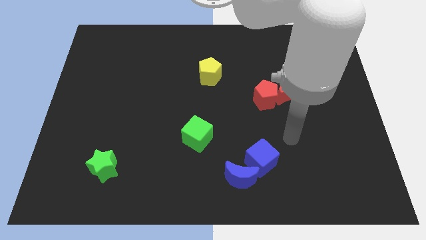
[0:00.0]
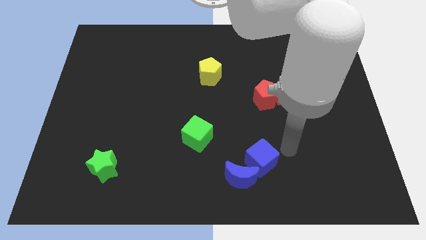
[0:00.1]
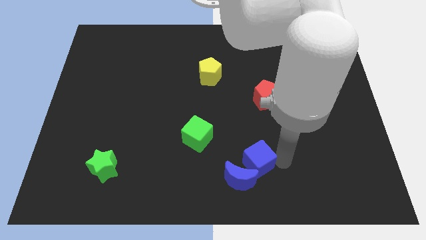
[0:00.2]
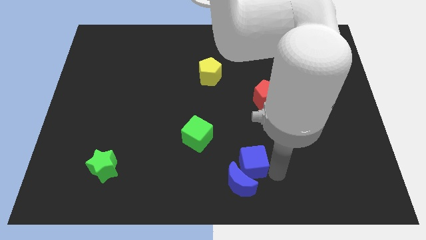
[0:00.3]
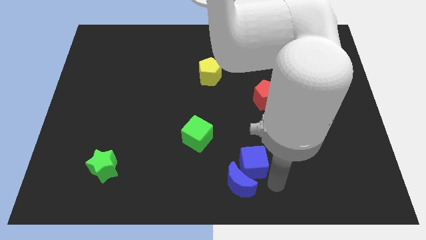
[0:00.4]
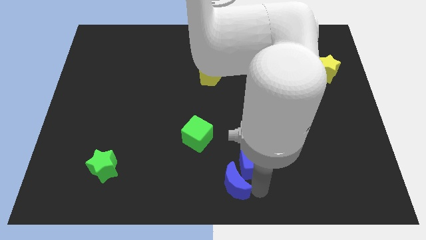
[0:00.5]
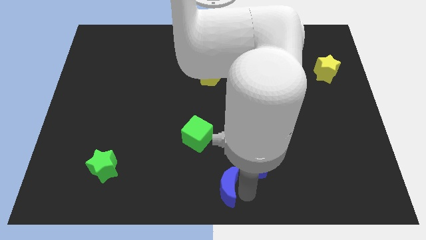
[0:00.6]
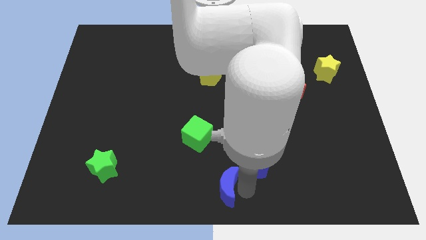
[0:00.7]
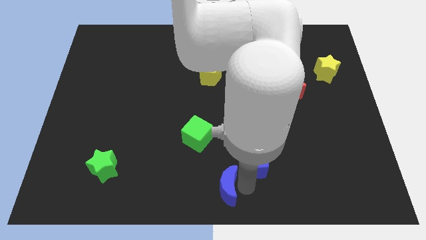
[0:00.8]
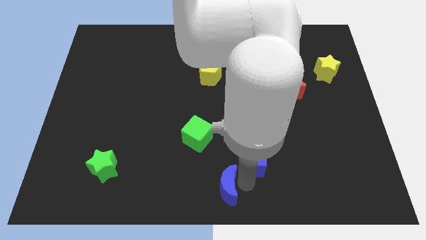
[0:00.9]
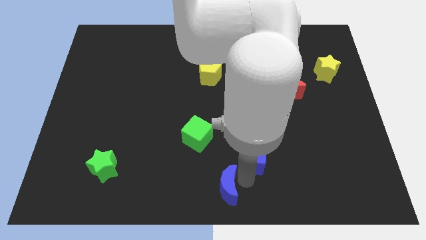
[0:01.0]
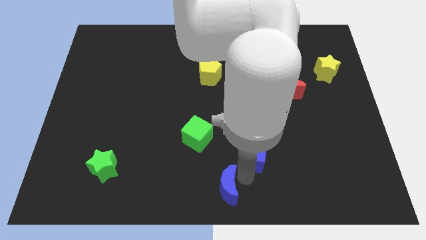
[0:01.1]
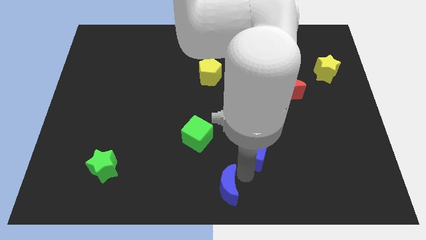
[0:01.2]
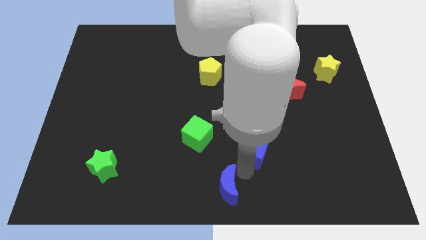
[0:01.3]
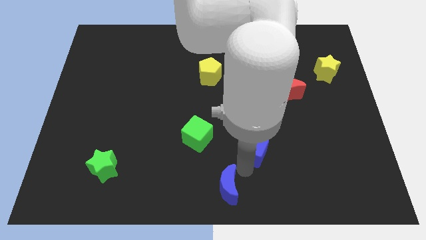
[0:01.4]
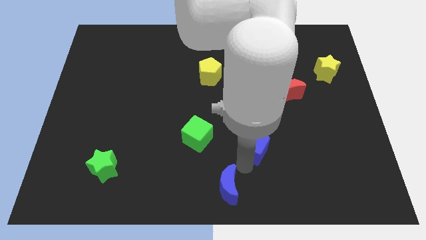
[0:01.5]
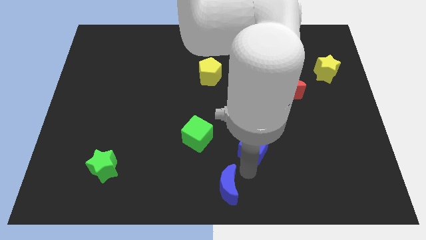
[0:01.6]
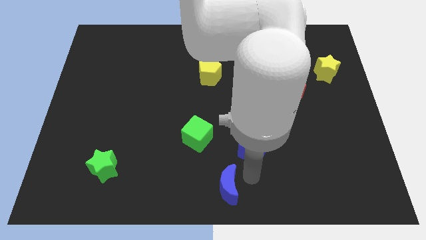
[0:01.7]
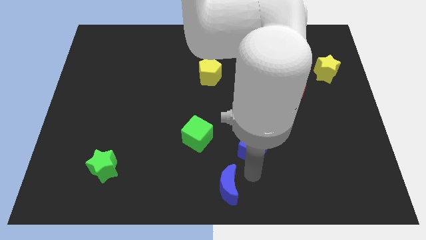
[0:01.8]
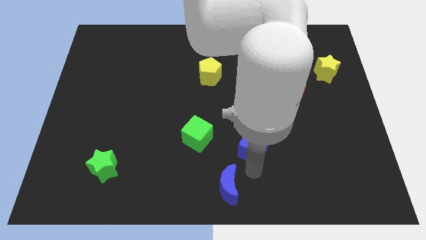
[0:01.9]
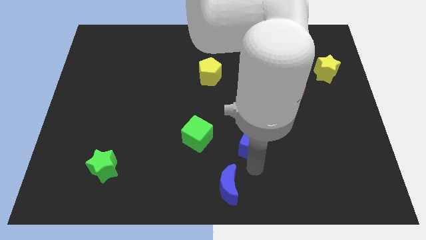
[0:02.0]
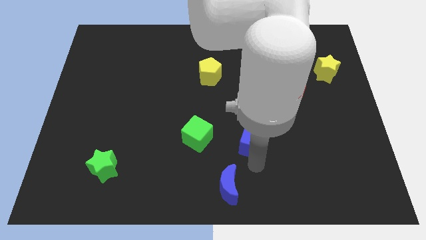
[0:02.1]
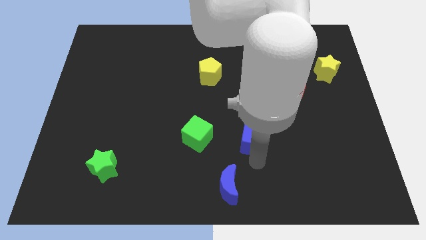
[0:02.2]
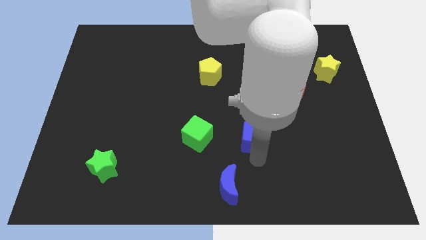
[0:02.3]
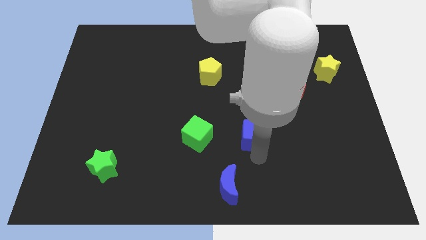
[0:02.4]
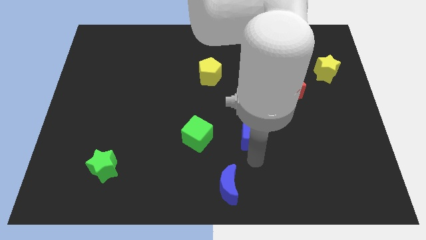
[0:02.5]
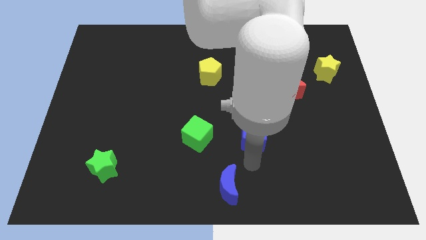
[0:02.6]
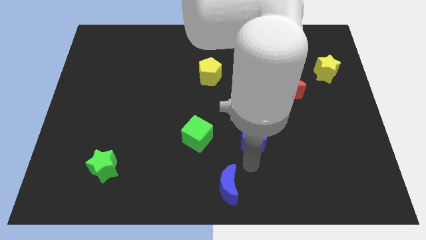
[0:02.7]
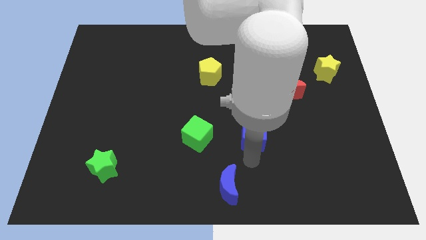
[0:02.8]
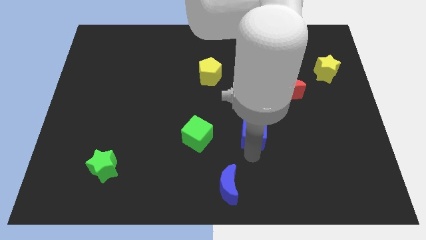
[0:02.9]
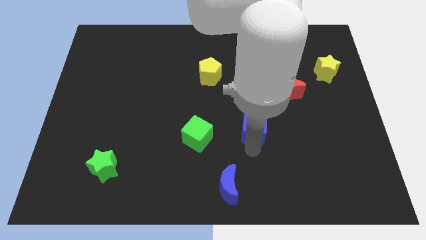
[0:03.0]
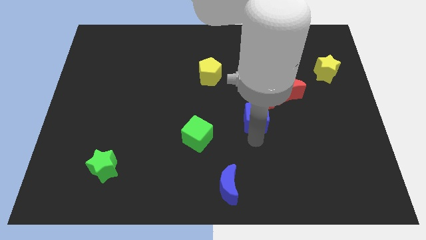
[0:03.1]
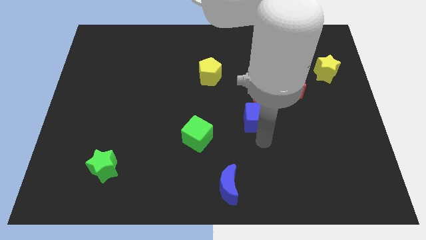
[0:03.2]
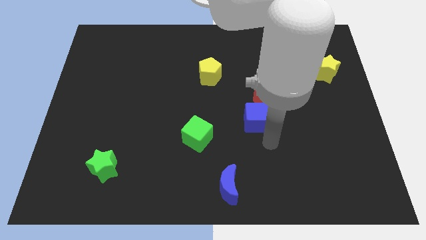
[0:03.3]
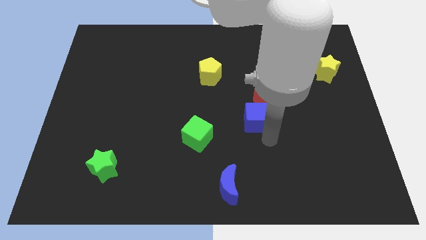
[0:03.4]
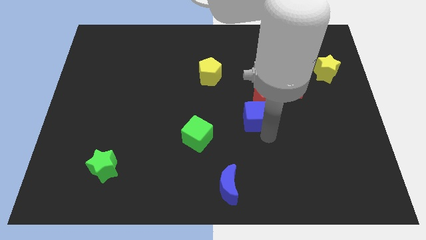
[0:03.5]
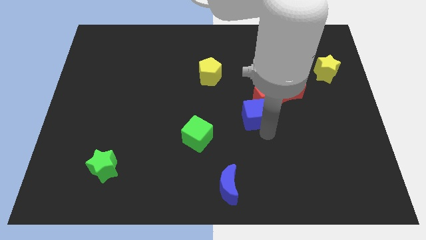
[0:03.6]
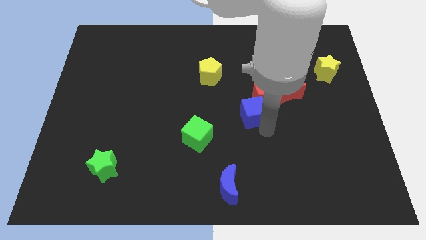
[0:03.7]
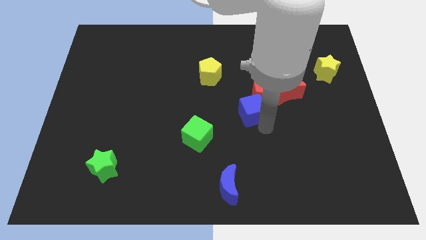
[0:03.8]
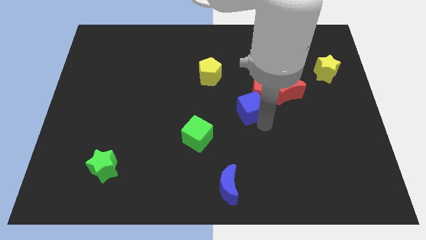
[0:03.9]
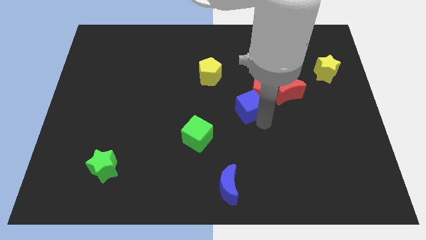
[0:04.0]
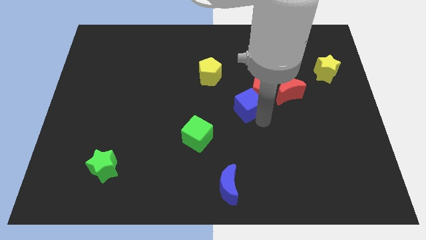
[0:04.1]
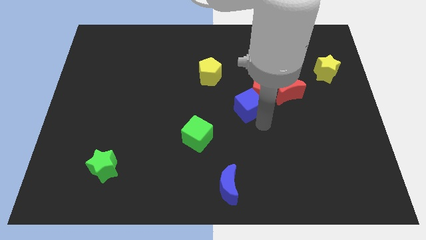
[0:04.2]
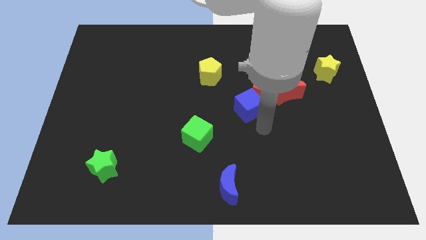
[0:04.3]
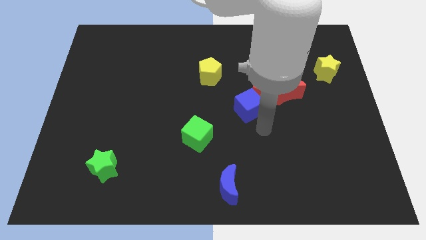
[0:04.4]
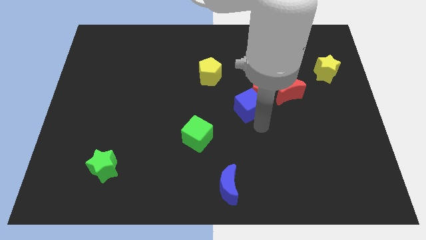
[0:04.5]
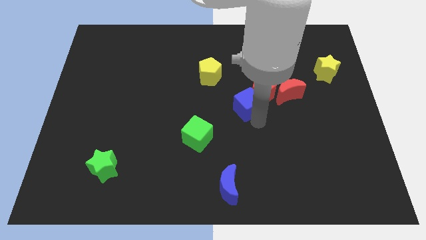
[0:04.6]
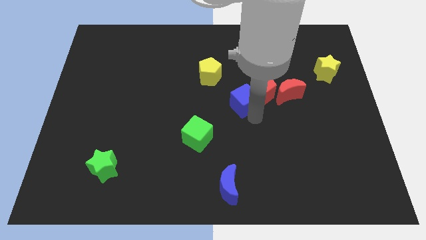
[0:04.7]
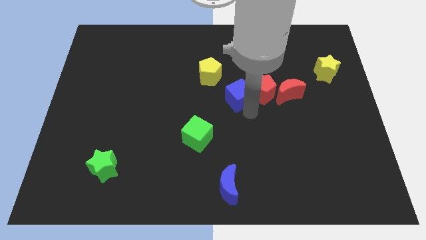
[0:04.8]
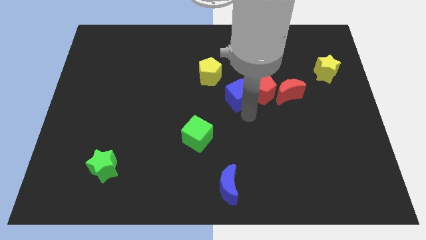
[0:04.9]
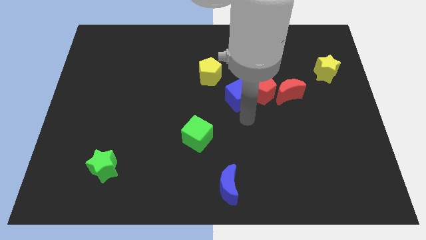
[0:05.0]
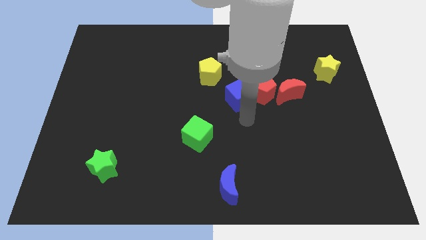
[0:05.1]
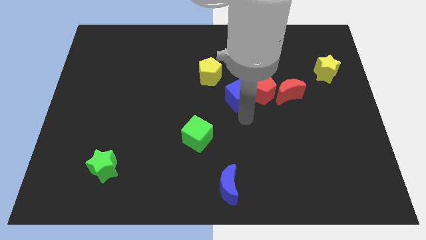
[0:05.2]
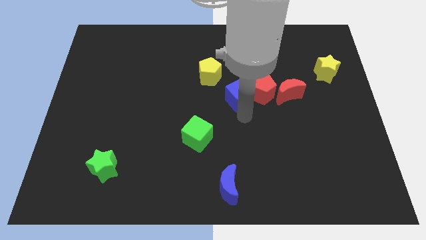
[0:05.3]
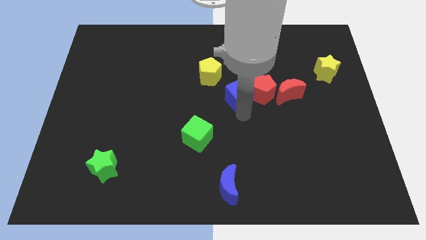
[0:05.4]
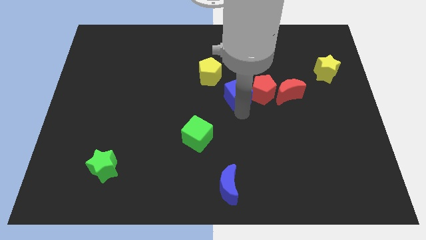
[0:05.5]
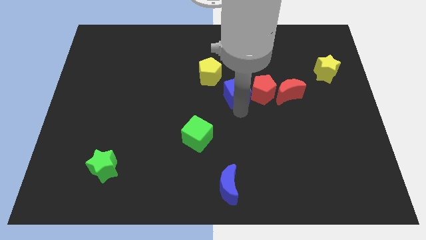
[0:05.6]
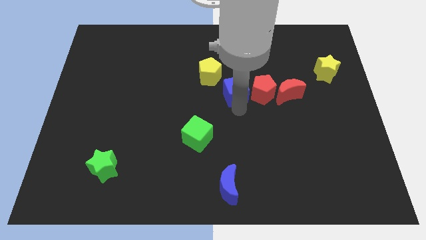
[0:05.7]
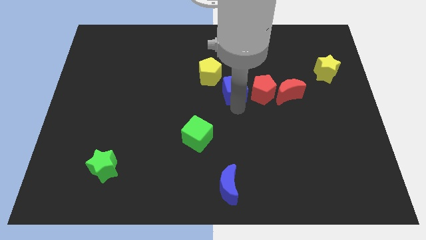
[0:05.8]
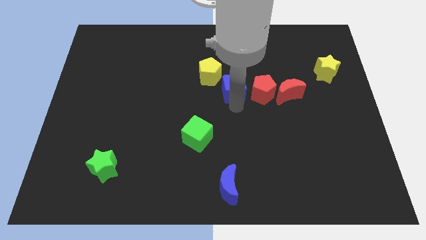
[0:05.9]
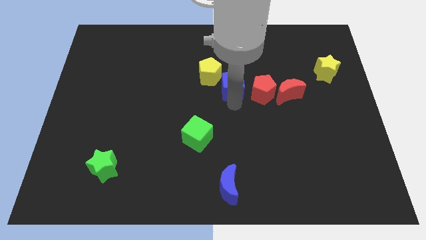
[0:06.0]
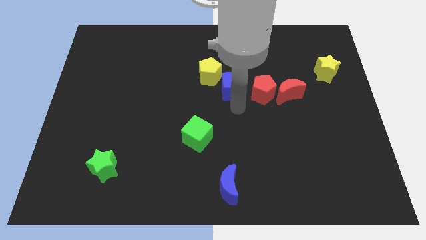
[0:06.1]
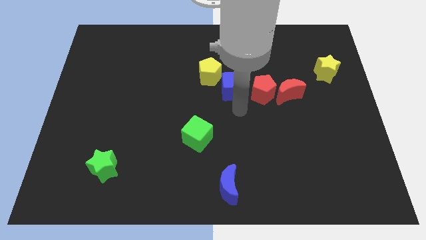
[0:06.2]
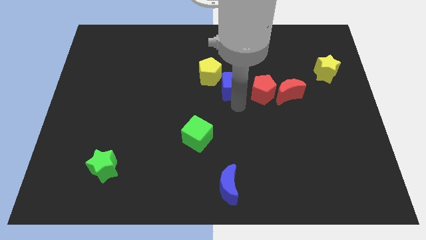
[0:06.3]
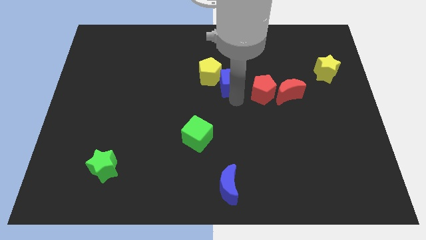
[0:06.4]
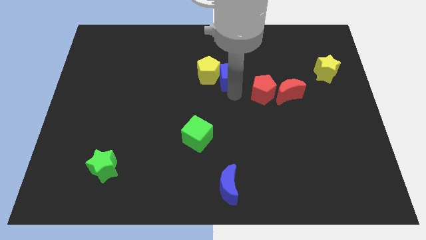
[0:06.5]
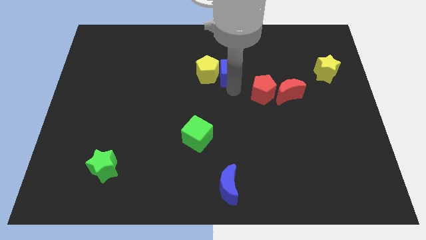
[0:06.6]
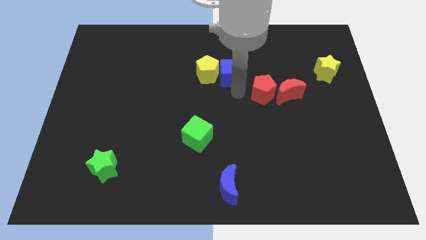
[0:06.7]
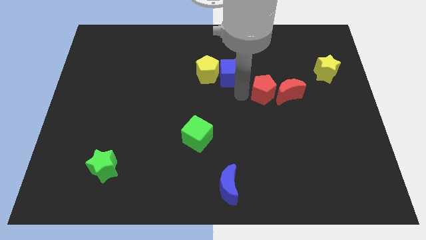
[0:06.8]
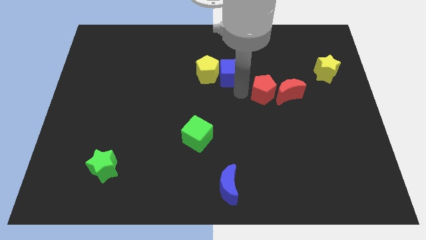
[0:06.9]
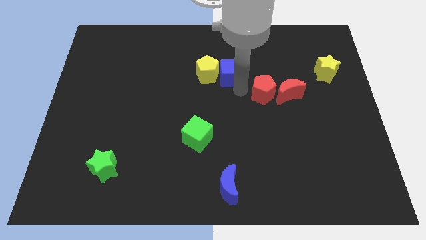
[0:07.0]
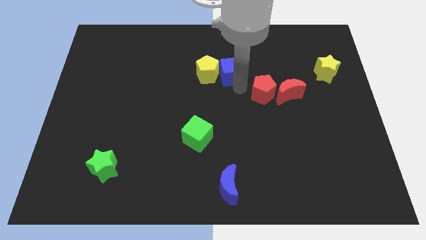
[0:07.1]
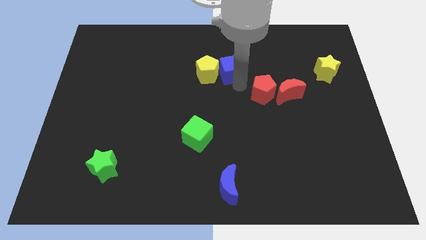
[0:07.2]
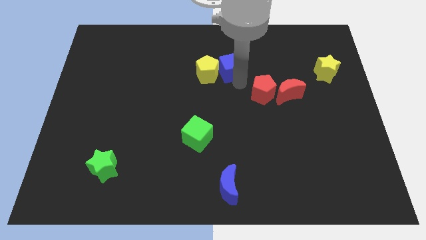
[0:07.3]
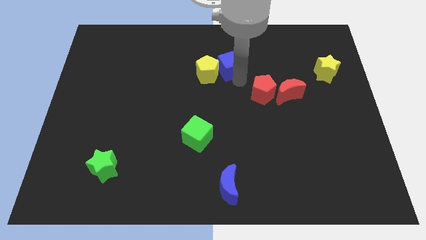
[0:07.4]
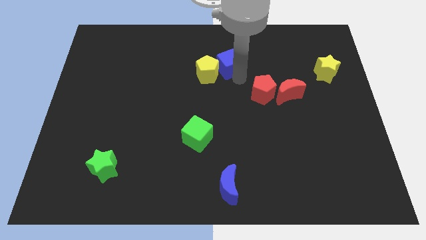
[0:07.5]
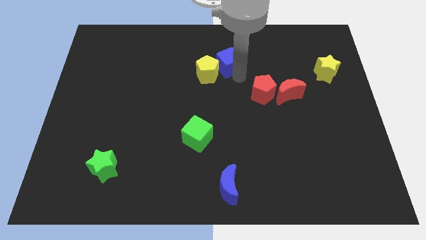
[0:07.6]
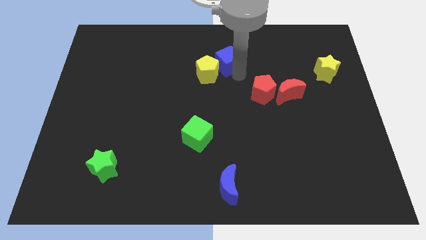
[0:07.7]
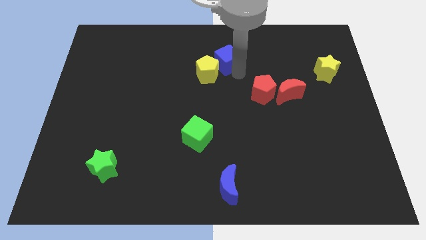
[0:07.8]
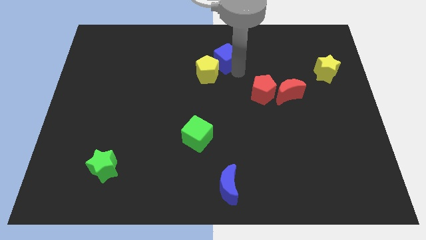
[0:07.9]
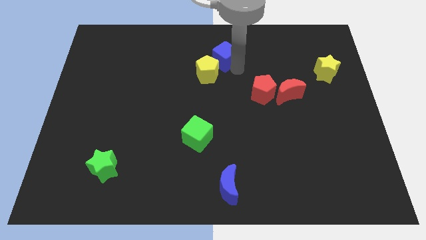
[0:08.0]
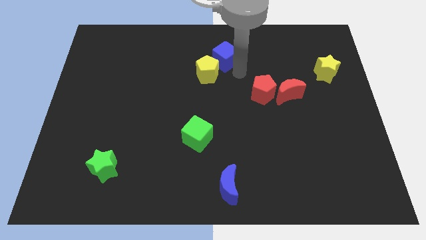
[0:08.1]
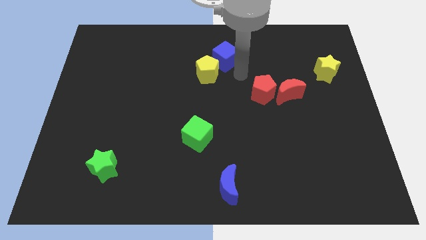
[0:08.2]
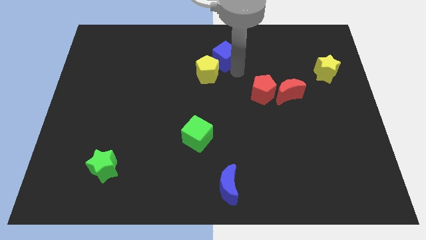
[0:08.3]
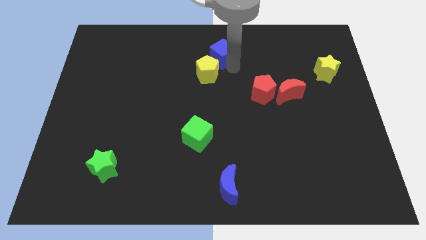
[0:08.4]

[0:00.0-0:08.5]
push the blue cube to the top
